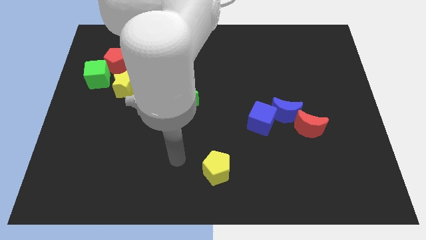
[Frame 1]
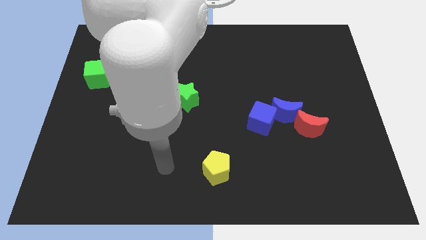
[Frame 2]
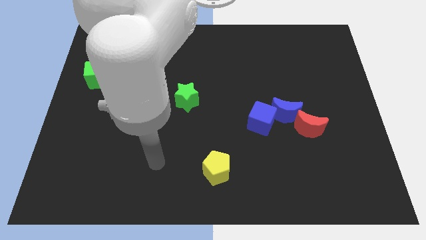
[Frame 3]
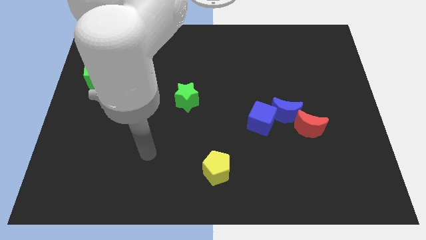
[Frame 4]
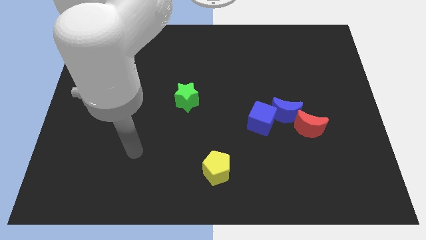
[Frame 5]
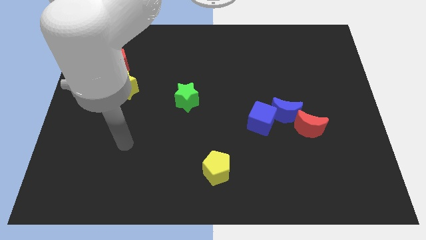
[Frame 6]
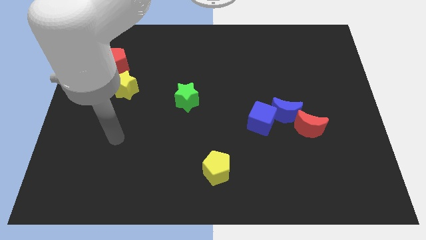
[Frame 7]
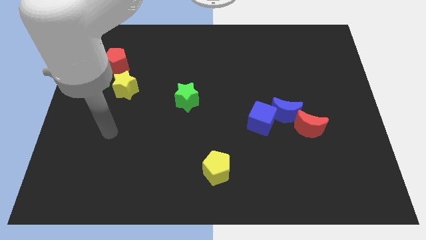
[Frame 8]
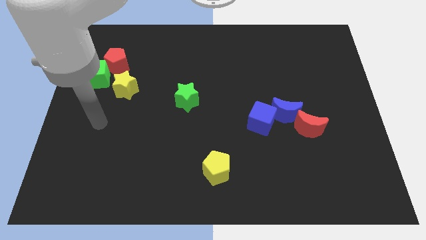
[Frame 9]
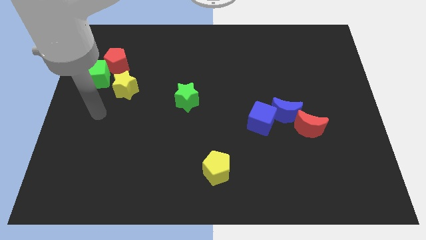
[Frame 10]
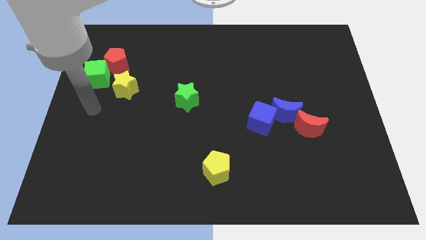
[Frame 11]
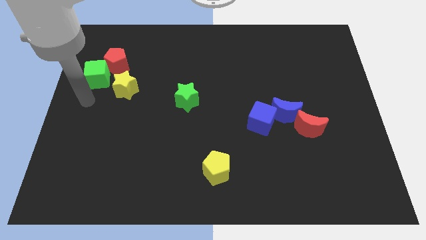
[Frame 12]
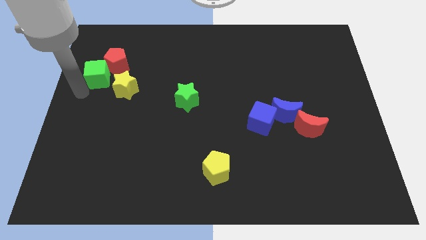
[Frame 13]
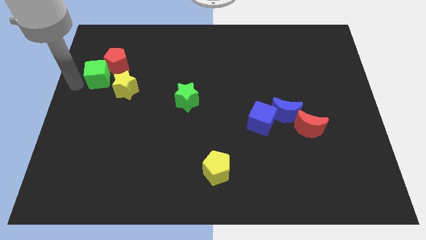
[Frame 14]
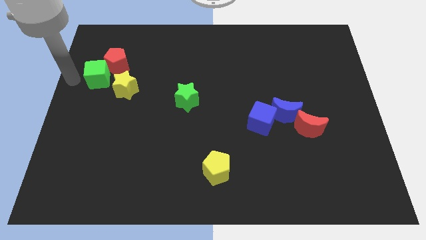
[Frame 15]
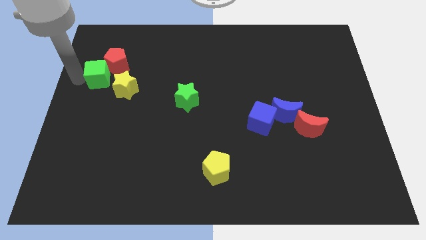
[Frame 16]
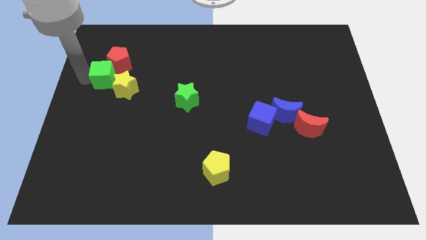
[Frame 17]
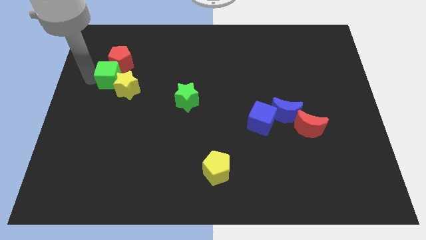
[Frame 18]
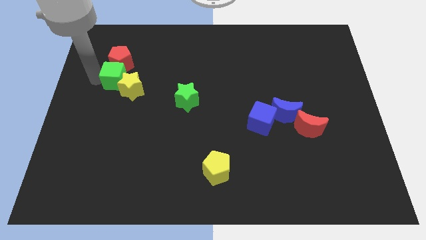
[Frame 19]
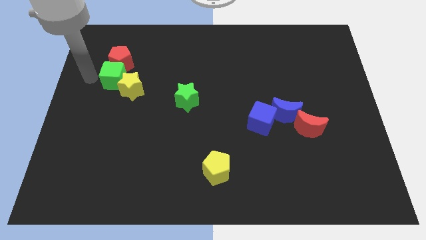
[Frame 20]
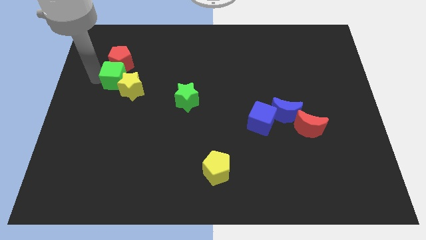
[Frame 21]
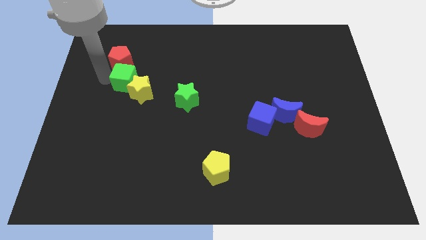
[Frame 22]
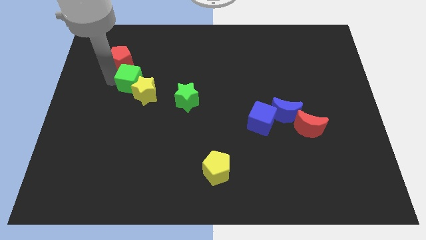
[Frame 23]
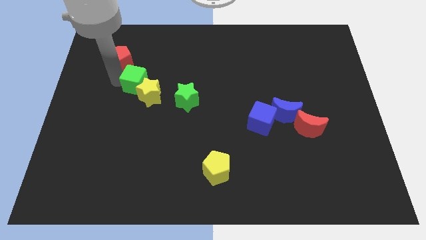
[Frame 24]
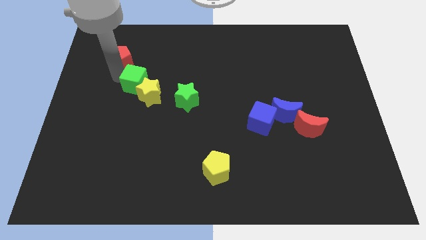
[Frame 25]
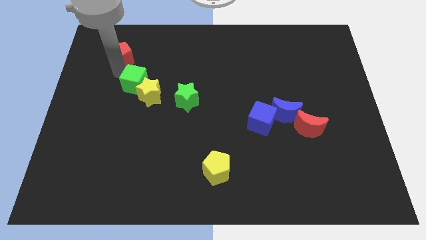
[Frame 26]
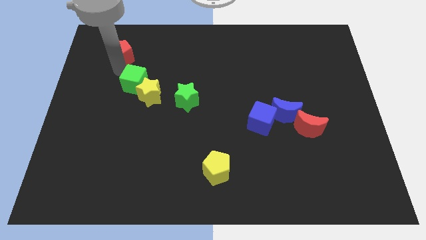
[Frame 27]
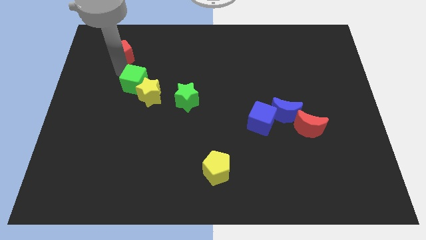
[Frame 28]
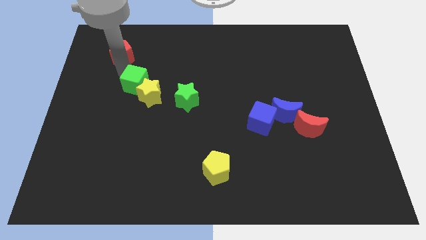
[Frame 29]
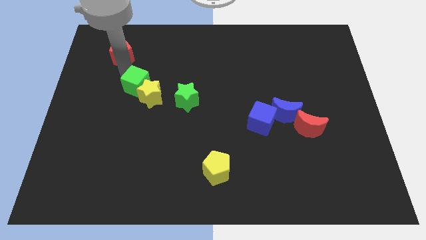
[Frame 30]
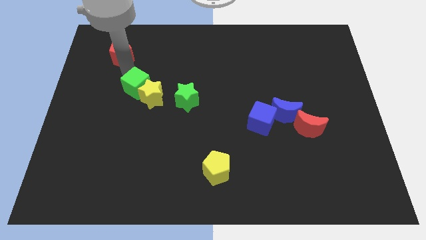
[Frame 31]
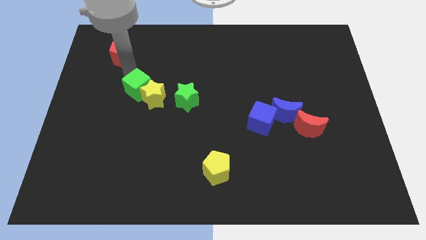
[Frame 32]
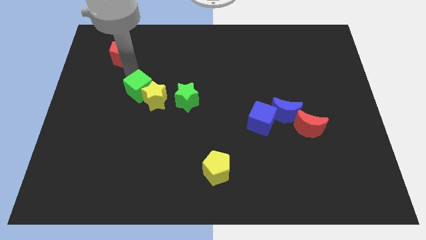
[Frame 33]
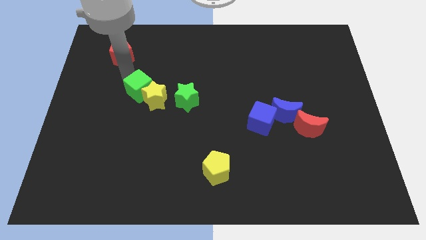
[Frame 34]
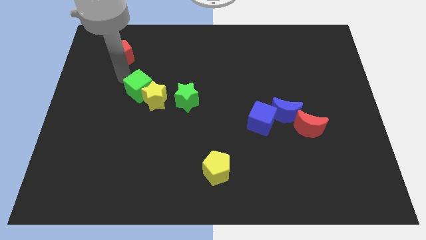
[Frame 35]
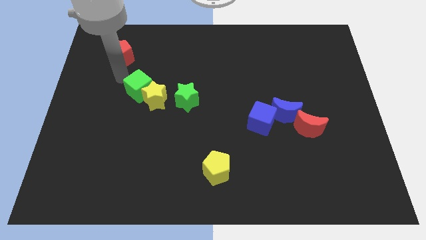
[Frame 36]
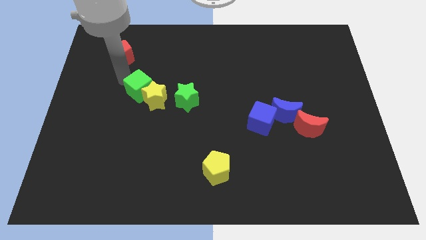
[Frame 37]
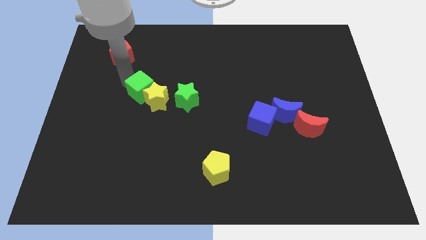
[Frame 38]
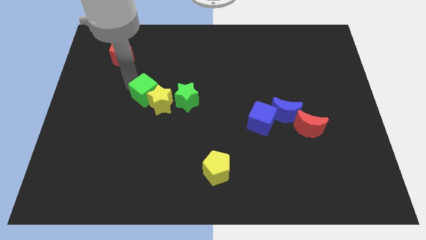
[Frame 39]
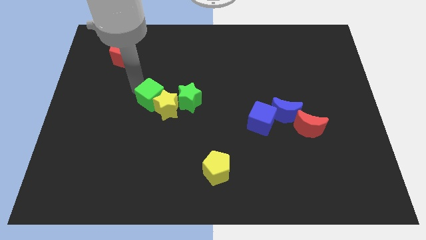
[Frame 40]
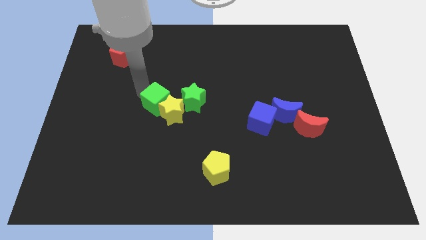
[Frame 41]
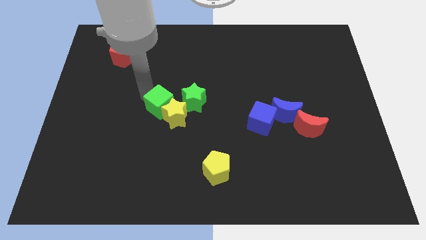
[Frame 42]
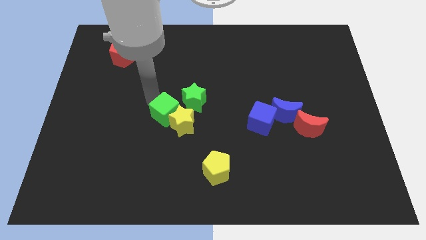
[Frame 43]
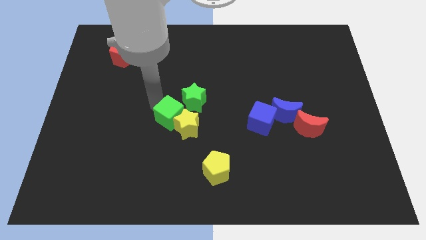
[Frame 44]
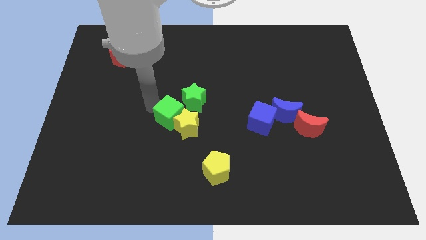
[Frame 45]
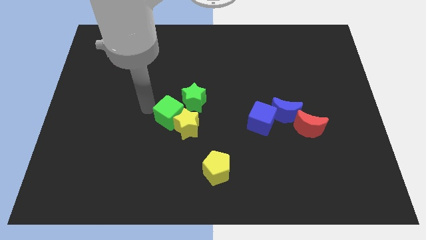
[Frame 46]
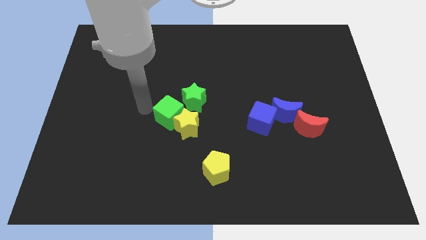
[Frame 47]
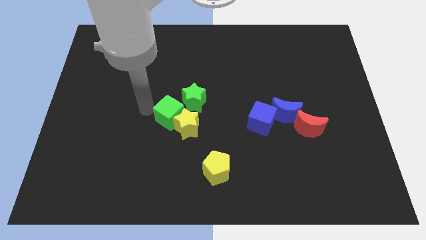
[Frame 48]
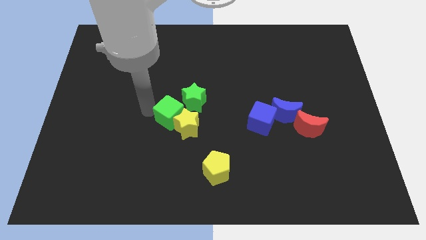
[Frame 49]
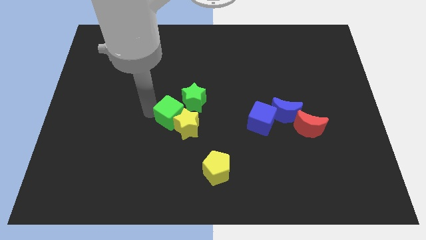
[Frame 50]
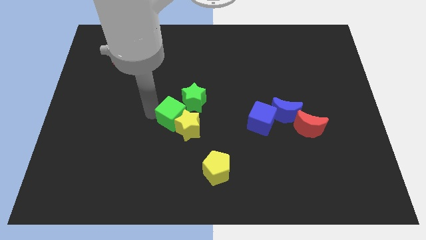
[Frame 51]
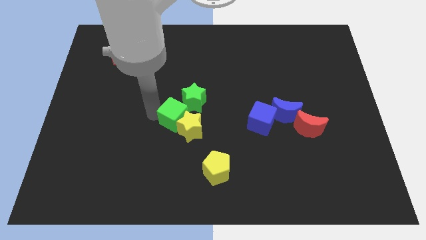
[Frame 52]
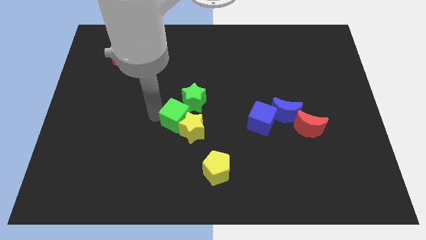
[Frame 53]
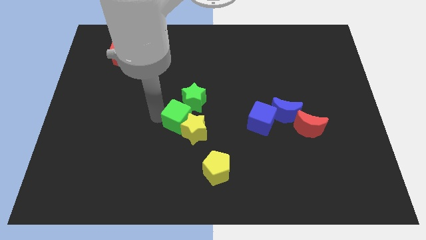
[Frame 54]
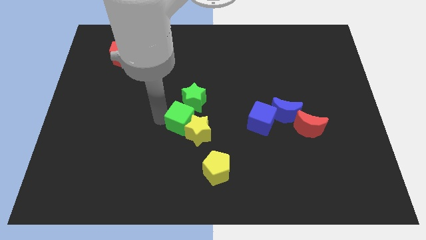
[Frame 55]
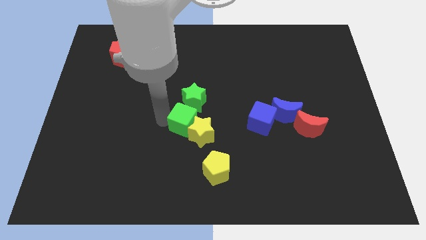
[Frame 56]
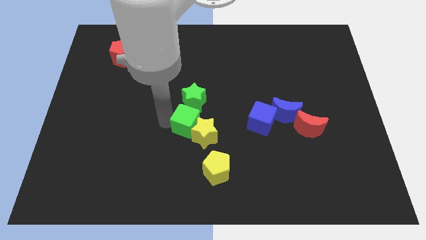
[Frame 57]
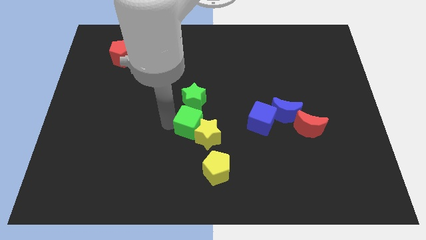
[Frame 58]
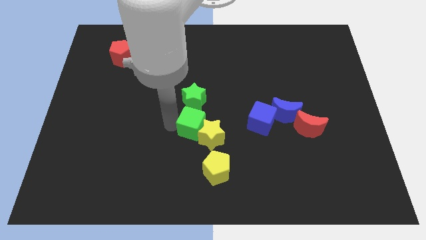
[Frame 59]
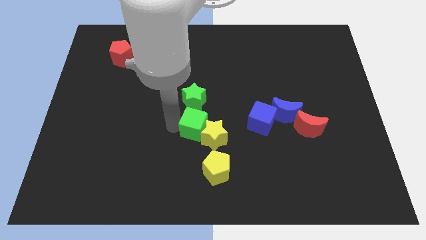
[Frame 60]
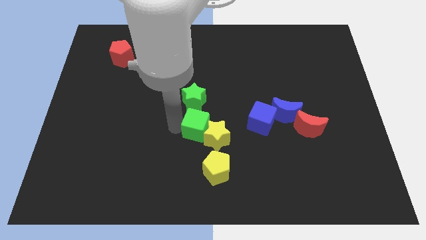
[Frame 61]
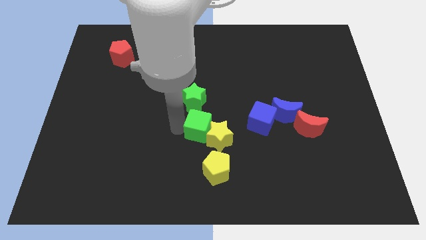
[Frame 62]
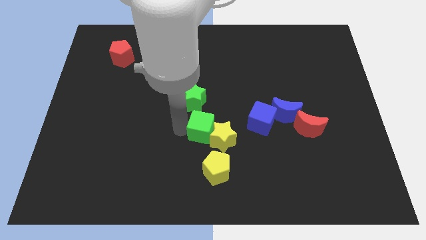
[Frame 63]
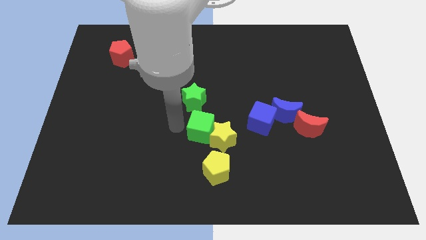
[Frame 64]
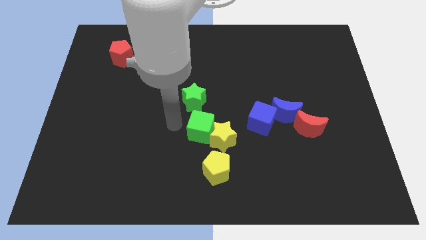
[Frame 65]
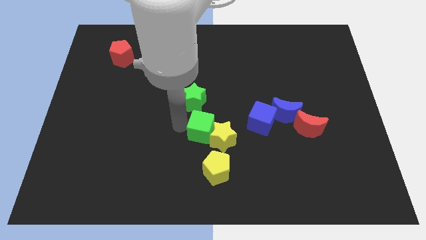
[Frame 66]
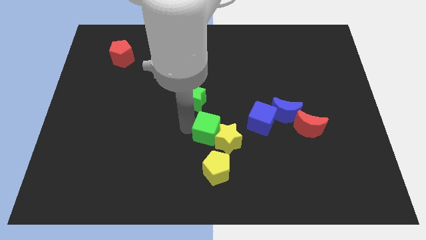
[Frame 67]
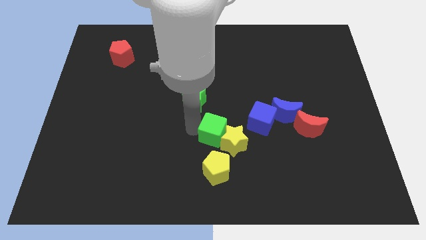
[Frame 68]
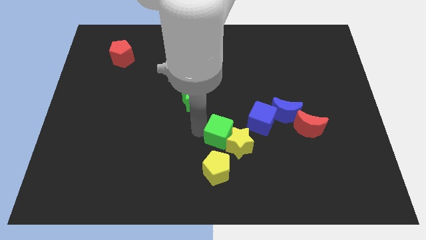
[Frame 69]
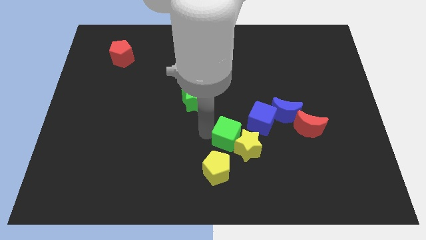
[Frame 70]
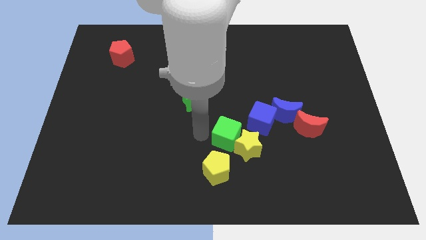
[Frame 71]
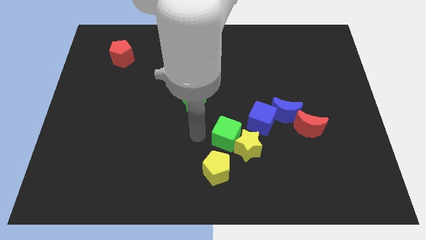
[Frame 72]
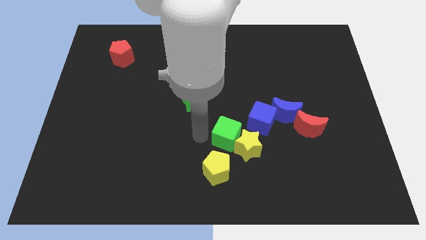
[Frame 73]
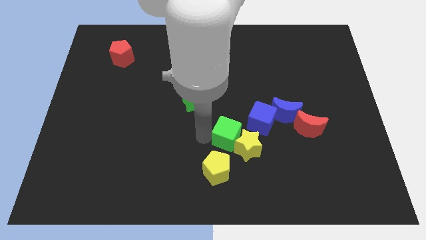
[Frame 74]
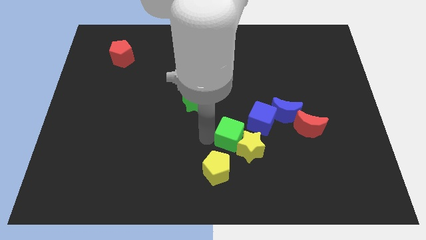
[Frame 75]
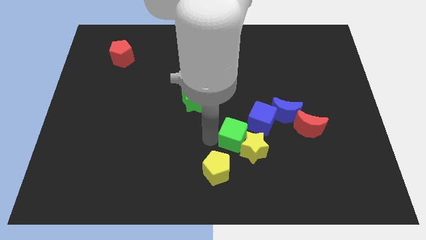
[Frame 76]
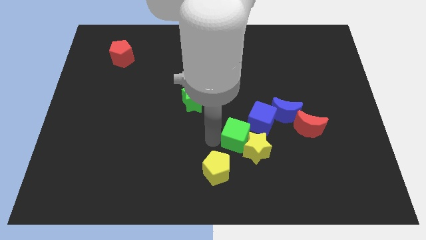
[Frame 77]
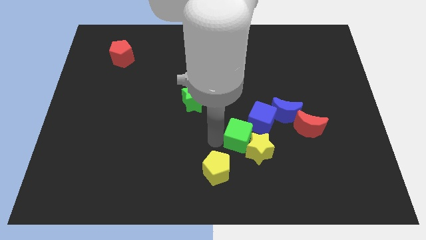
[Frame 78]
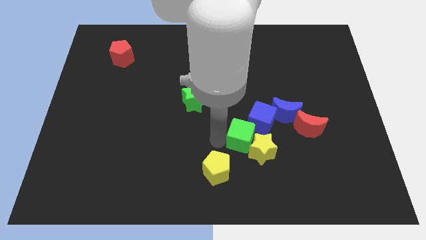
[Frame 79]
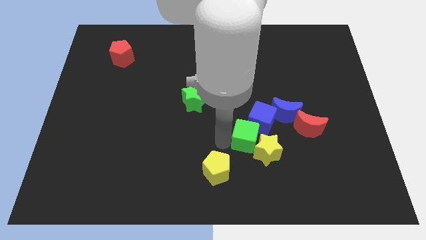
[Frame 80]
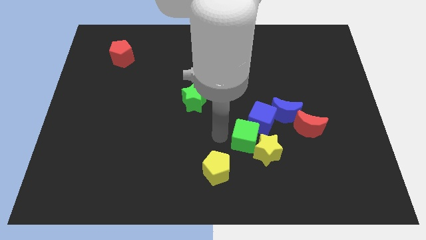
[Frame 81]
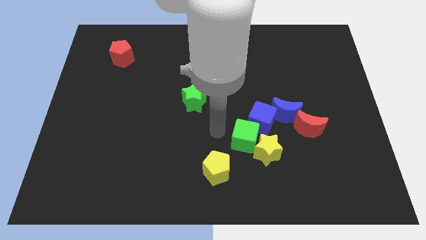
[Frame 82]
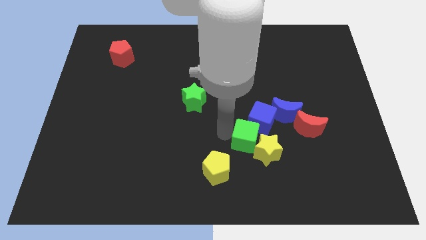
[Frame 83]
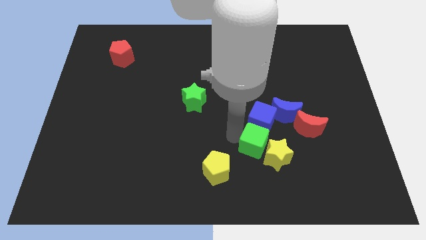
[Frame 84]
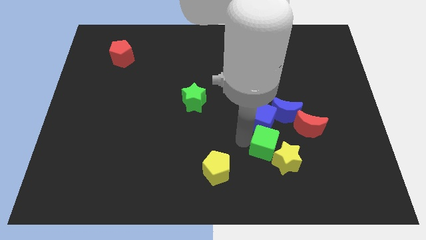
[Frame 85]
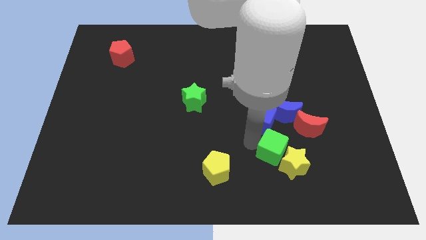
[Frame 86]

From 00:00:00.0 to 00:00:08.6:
move the green cube to the bottom side of the blue moon
